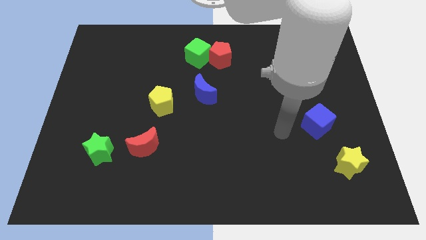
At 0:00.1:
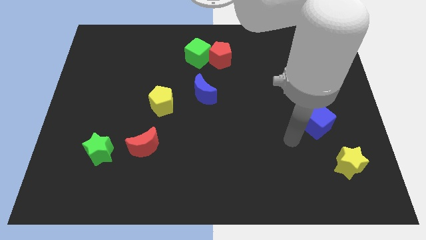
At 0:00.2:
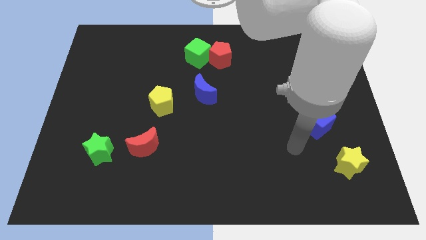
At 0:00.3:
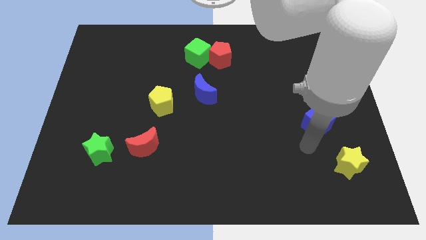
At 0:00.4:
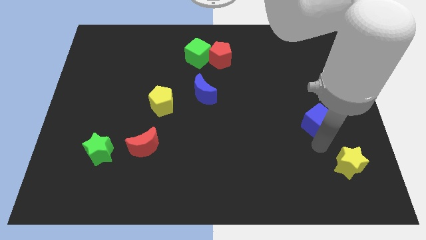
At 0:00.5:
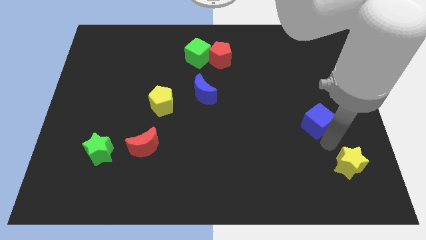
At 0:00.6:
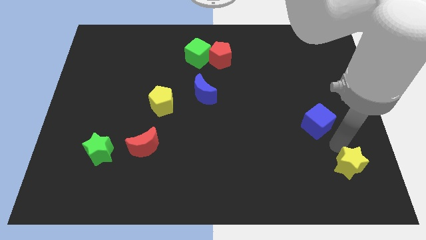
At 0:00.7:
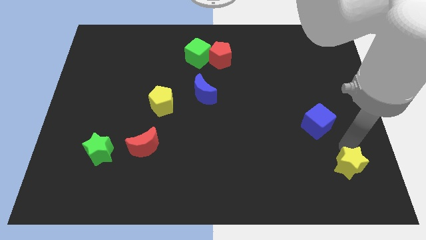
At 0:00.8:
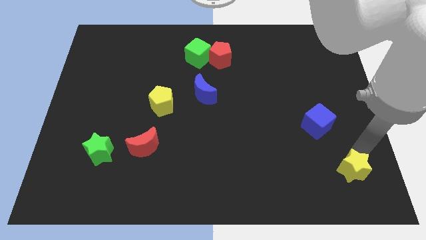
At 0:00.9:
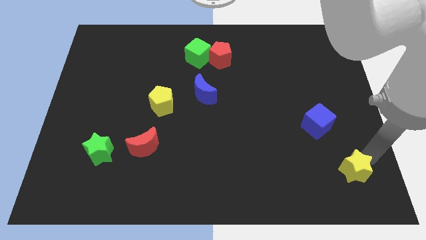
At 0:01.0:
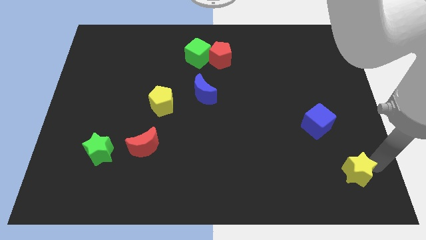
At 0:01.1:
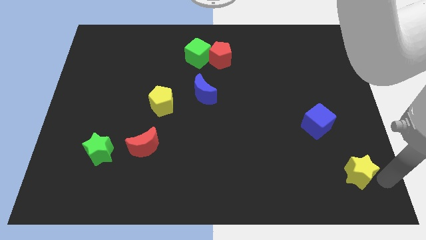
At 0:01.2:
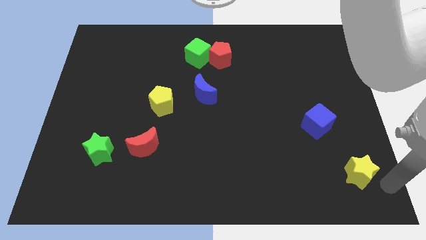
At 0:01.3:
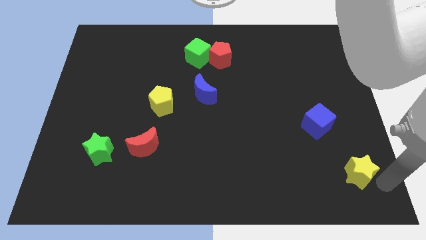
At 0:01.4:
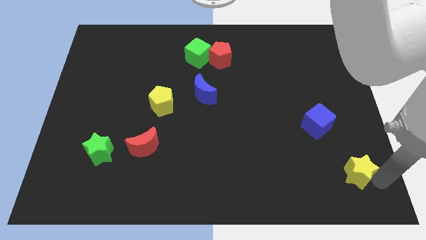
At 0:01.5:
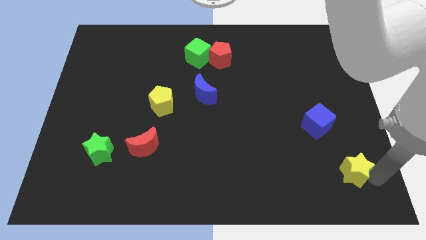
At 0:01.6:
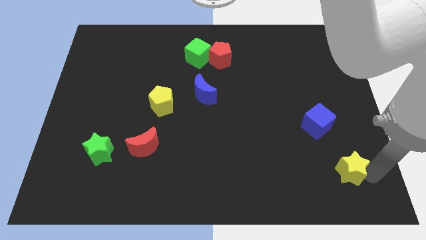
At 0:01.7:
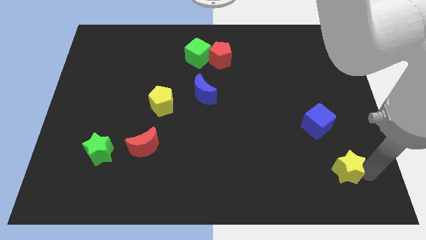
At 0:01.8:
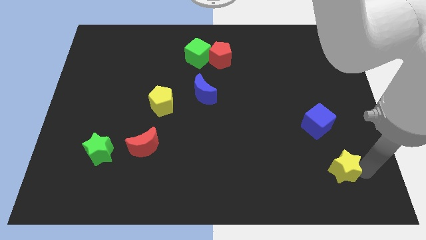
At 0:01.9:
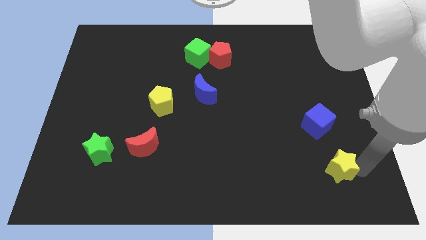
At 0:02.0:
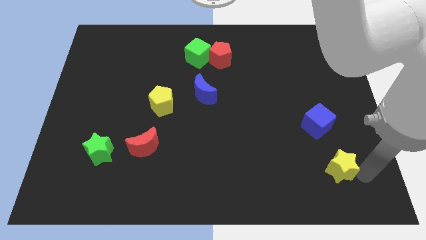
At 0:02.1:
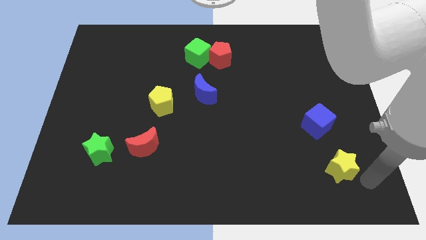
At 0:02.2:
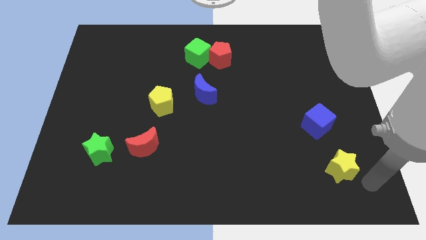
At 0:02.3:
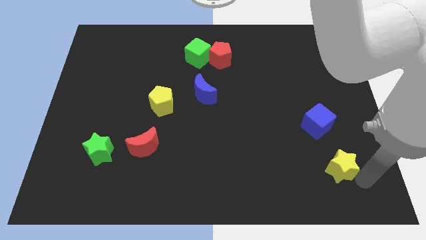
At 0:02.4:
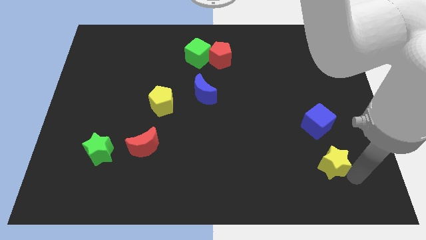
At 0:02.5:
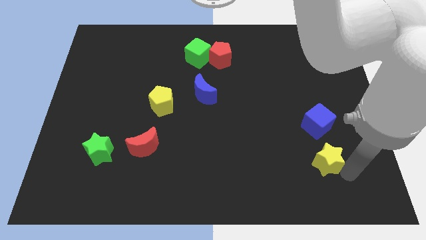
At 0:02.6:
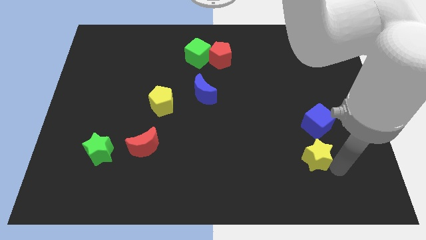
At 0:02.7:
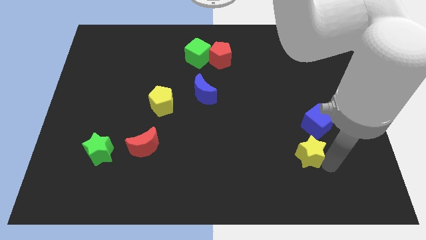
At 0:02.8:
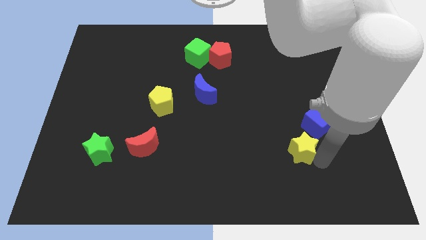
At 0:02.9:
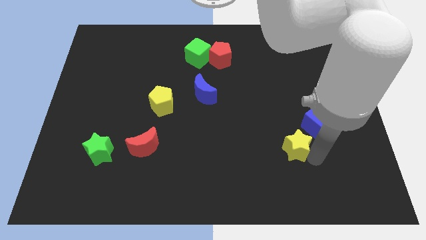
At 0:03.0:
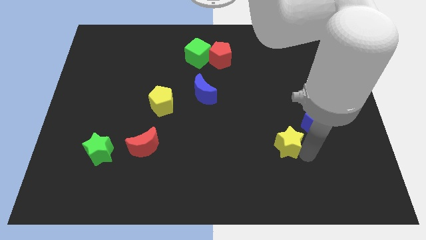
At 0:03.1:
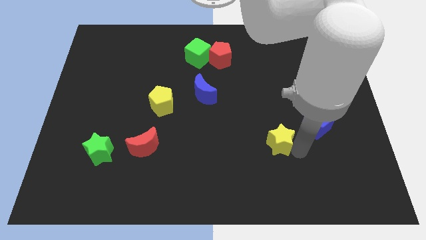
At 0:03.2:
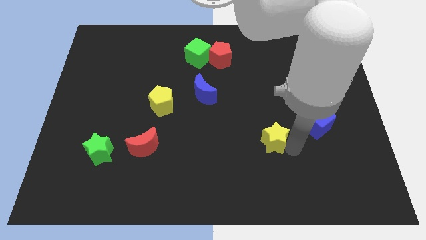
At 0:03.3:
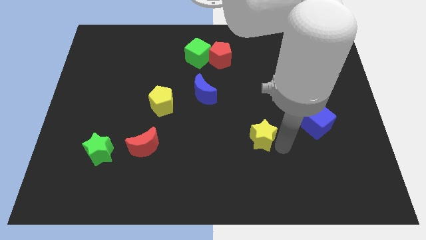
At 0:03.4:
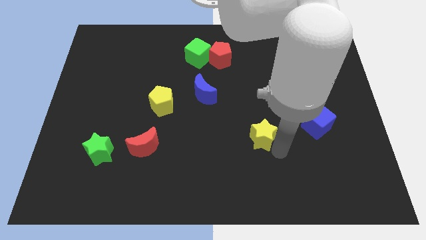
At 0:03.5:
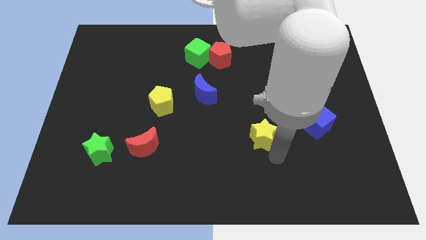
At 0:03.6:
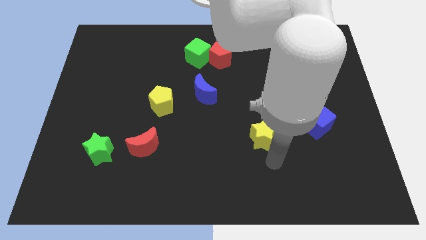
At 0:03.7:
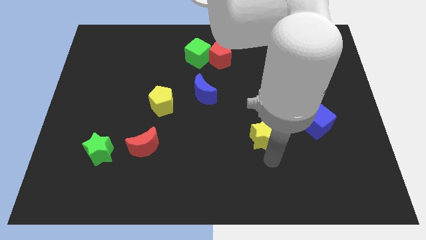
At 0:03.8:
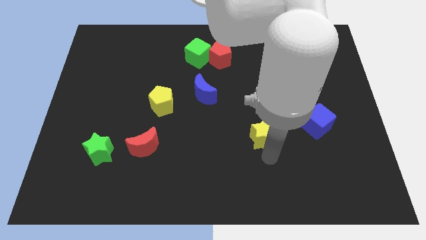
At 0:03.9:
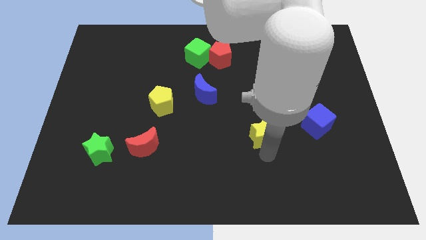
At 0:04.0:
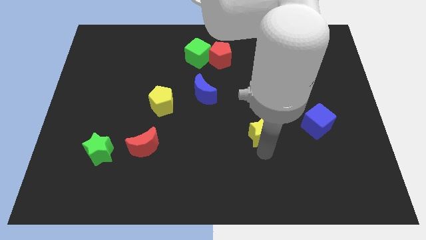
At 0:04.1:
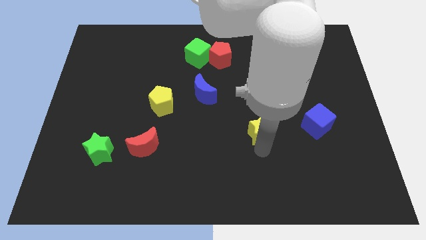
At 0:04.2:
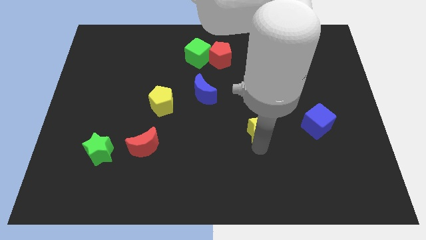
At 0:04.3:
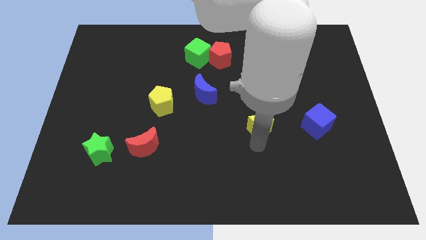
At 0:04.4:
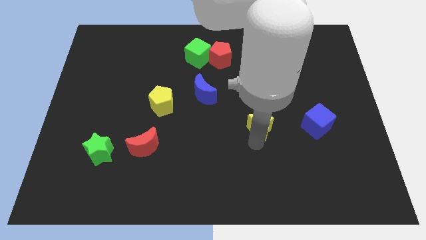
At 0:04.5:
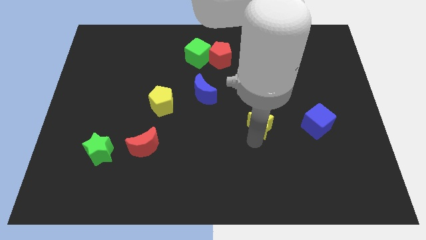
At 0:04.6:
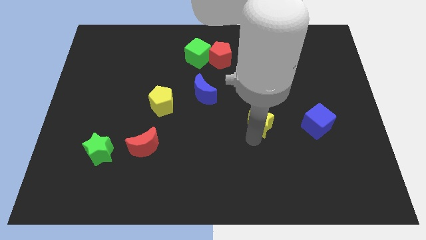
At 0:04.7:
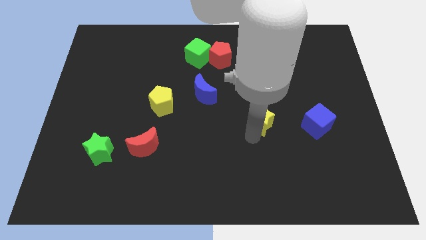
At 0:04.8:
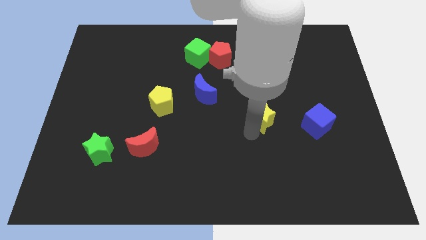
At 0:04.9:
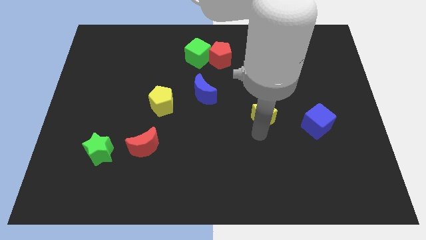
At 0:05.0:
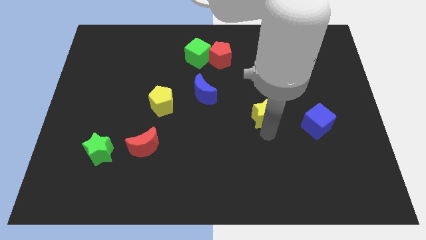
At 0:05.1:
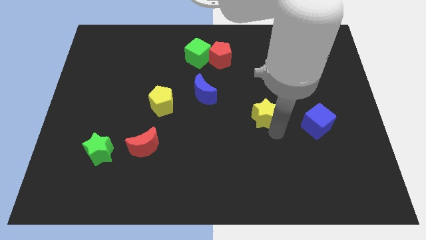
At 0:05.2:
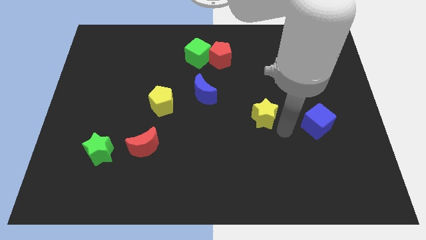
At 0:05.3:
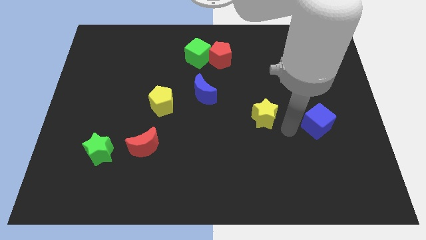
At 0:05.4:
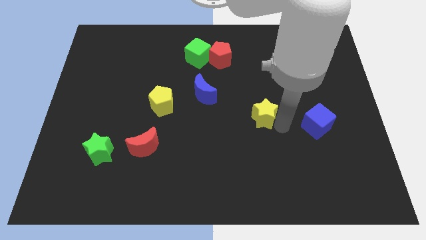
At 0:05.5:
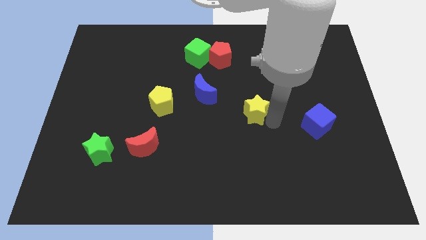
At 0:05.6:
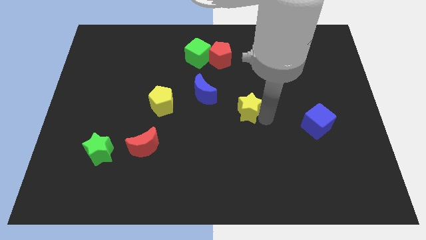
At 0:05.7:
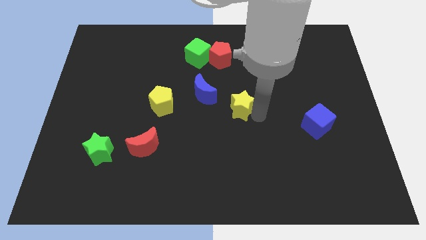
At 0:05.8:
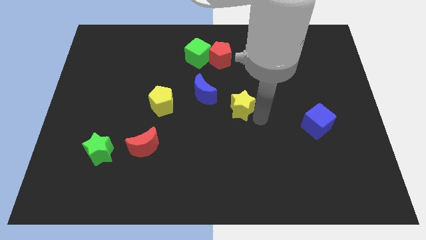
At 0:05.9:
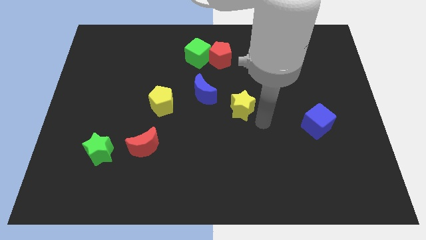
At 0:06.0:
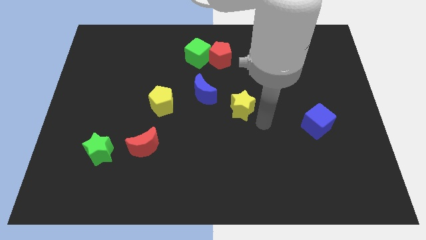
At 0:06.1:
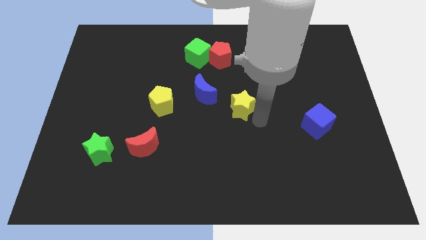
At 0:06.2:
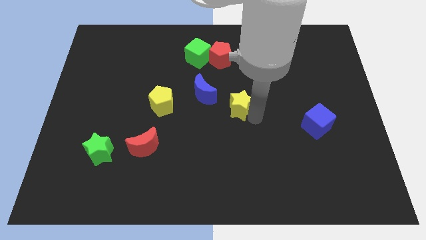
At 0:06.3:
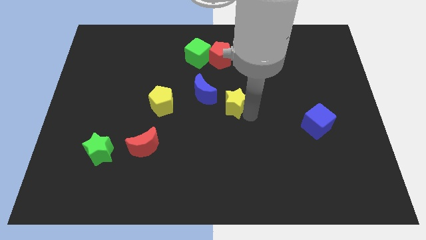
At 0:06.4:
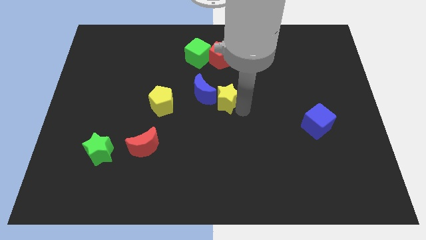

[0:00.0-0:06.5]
put the yellow star close to the blue moon

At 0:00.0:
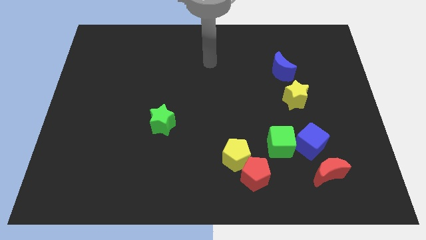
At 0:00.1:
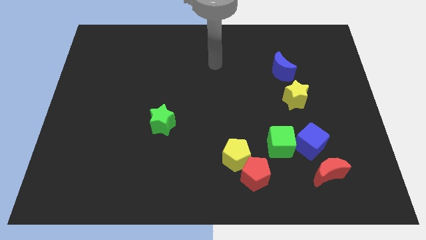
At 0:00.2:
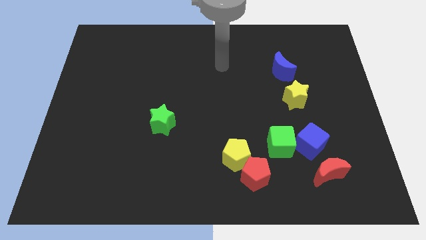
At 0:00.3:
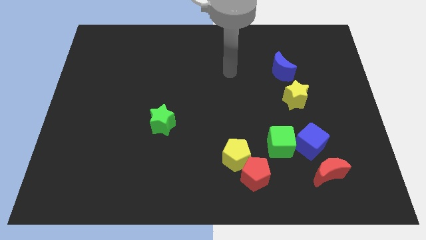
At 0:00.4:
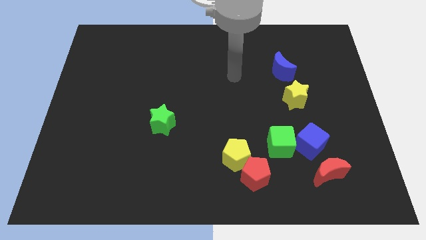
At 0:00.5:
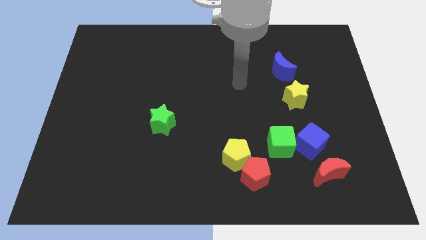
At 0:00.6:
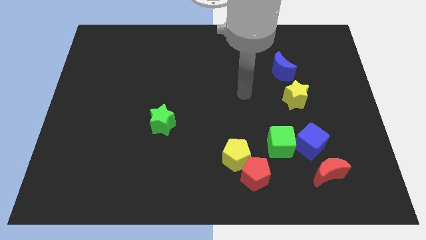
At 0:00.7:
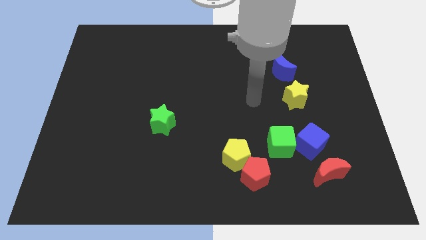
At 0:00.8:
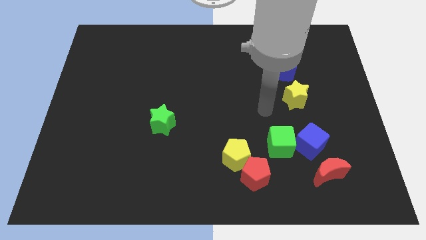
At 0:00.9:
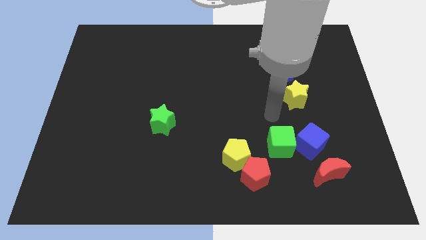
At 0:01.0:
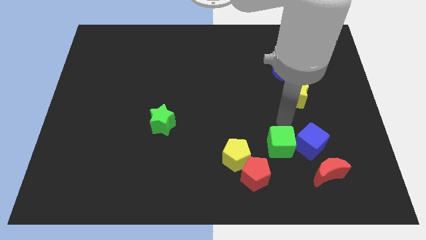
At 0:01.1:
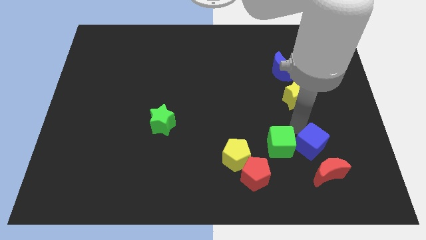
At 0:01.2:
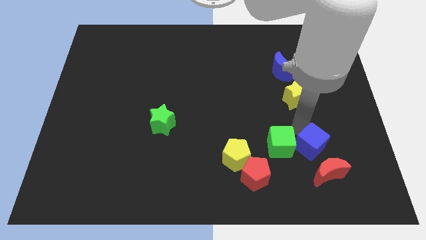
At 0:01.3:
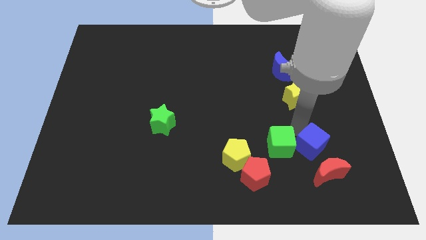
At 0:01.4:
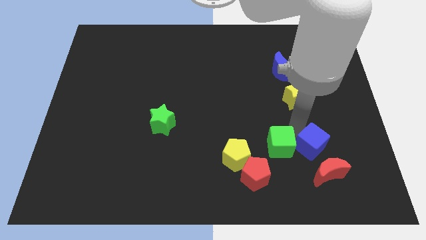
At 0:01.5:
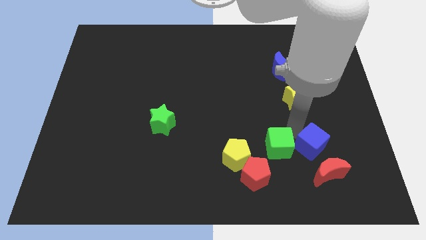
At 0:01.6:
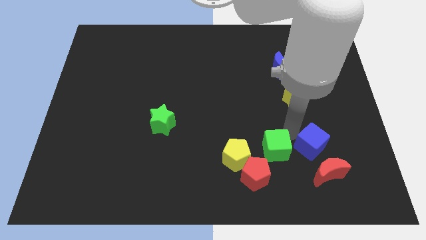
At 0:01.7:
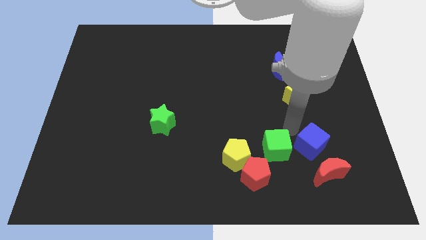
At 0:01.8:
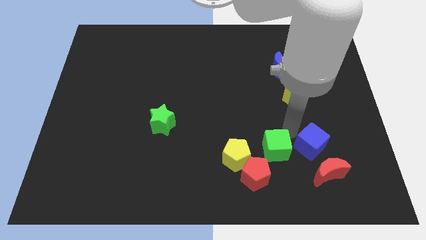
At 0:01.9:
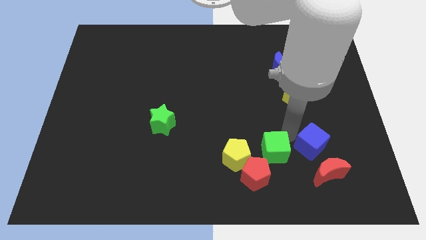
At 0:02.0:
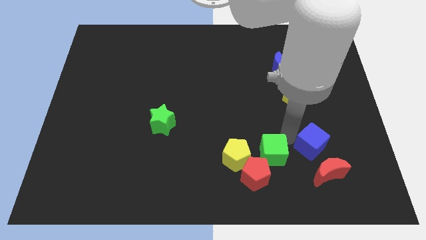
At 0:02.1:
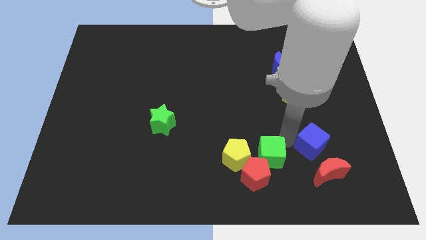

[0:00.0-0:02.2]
put the green cube towards the red pentagon
